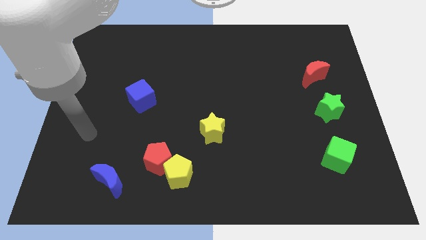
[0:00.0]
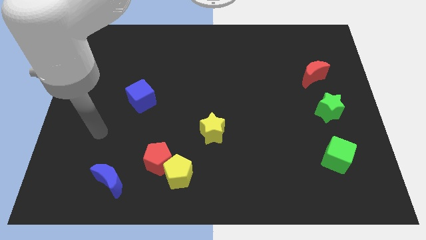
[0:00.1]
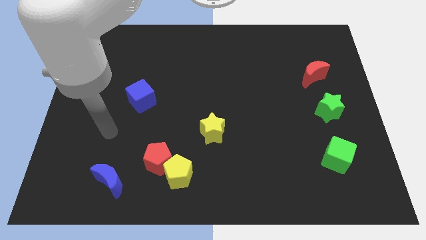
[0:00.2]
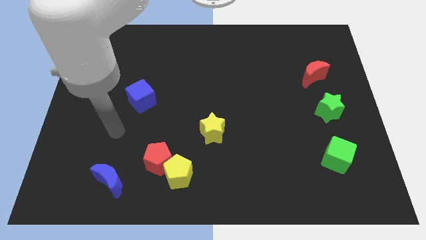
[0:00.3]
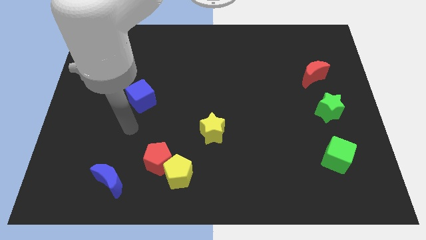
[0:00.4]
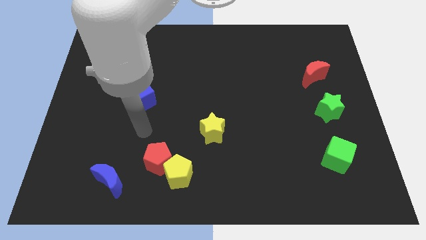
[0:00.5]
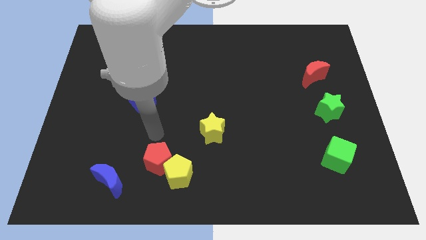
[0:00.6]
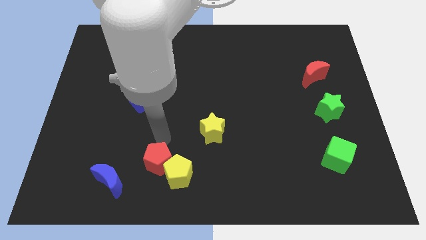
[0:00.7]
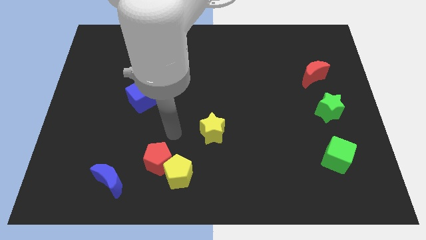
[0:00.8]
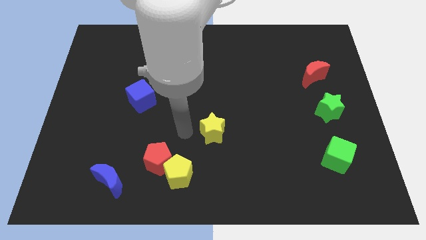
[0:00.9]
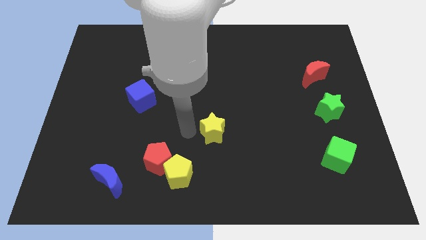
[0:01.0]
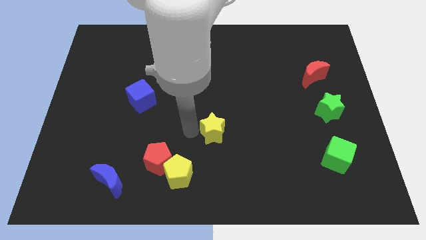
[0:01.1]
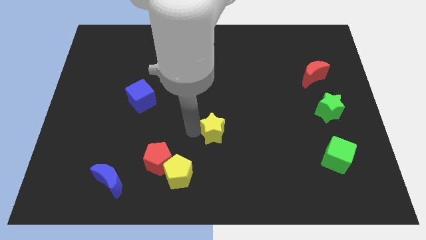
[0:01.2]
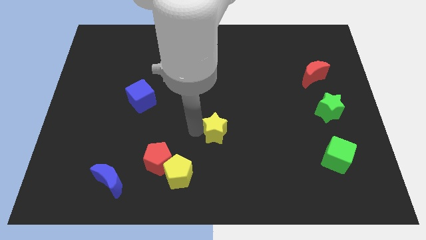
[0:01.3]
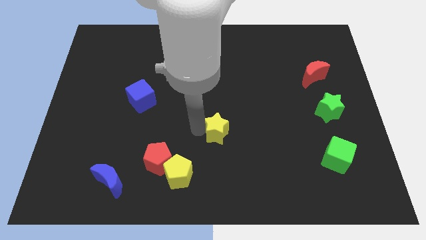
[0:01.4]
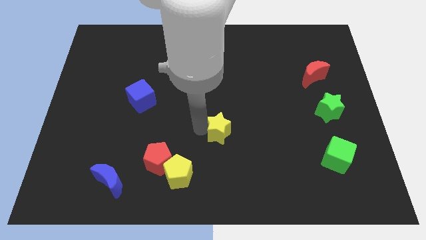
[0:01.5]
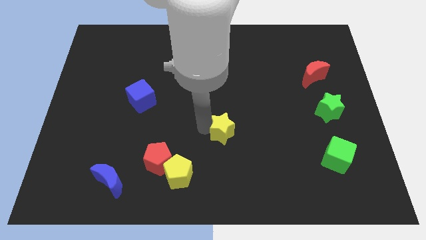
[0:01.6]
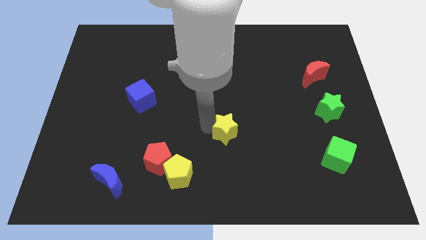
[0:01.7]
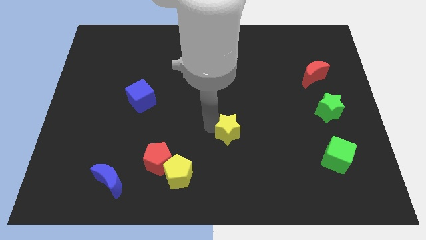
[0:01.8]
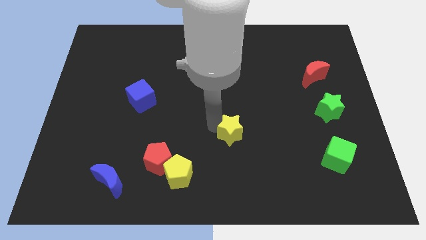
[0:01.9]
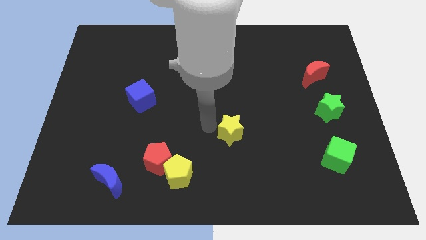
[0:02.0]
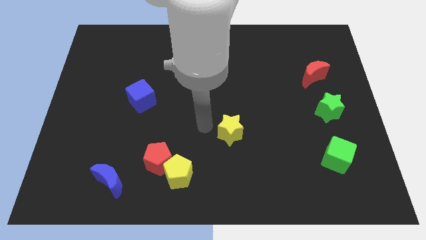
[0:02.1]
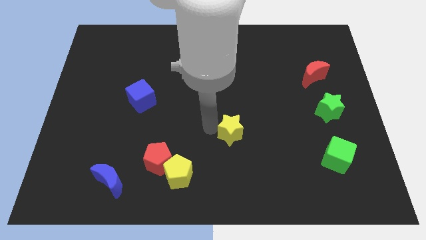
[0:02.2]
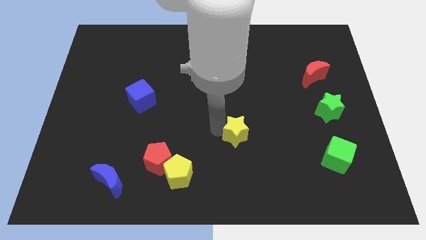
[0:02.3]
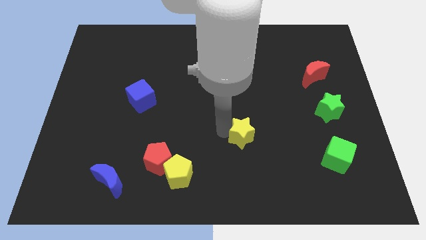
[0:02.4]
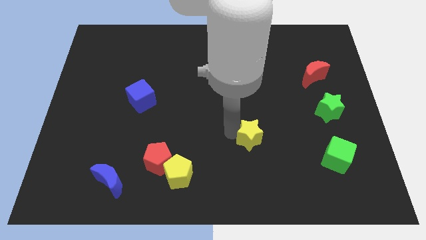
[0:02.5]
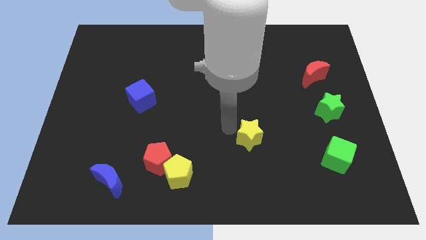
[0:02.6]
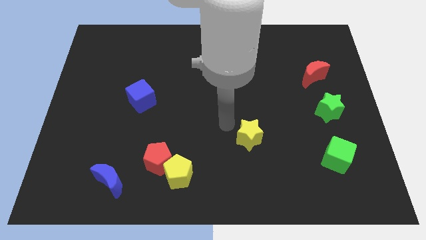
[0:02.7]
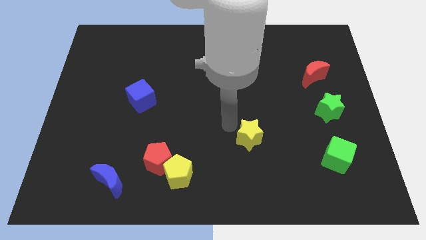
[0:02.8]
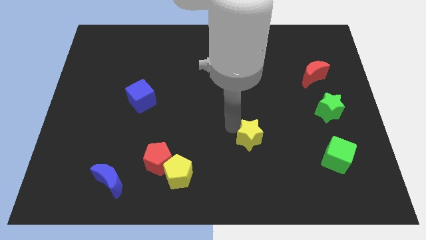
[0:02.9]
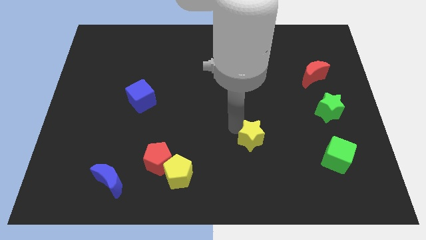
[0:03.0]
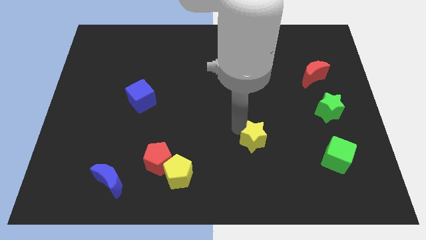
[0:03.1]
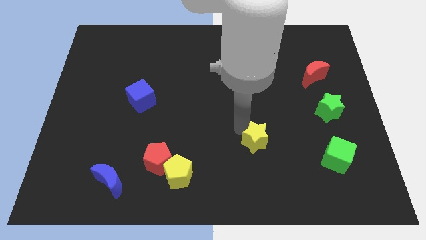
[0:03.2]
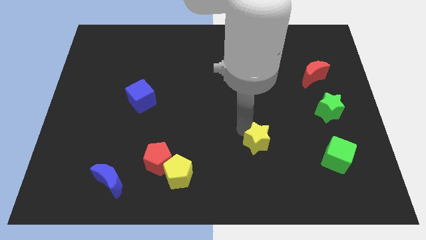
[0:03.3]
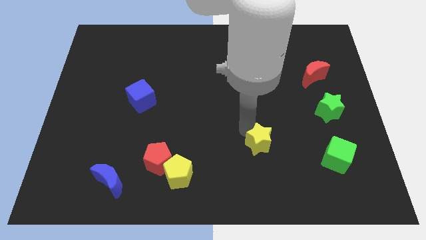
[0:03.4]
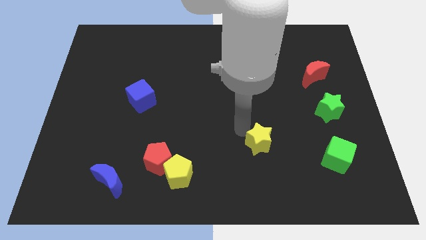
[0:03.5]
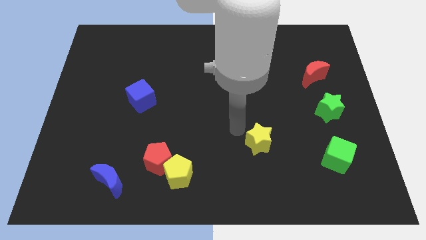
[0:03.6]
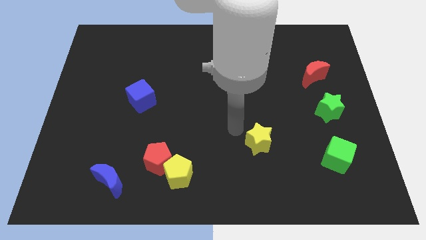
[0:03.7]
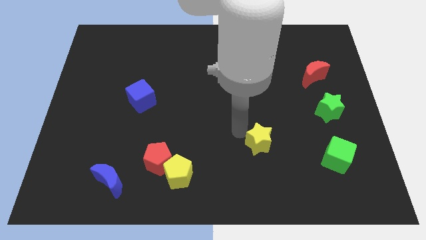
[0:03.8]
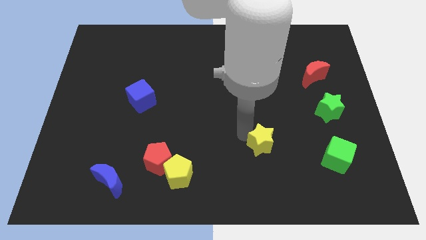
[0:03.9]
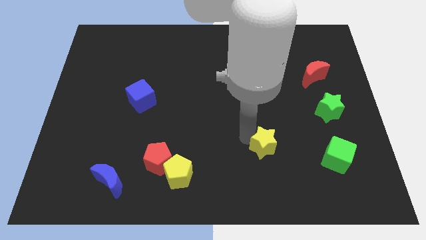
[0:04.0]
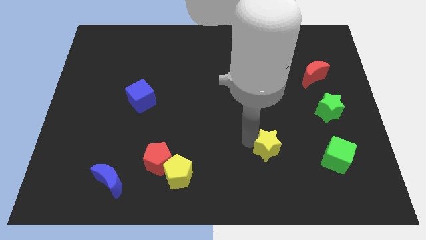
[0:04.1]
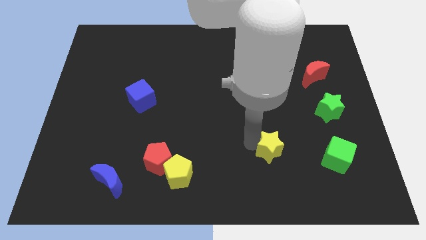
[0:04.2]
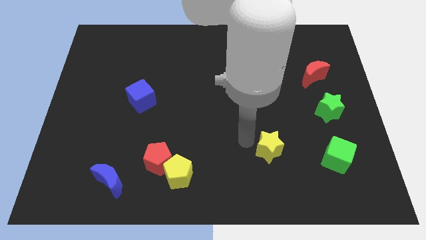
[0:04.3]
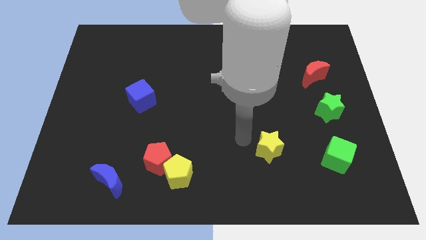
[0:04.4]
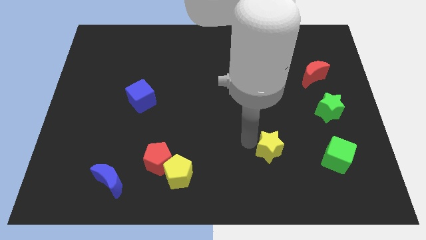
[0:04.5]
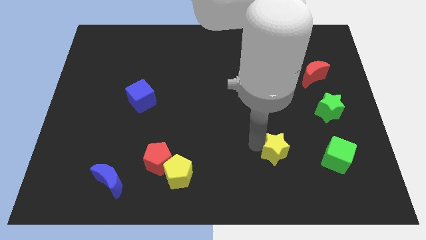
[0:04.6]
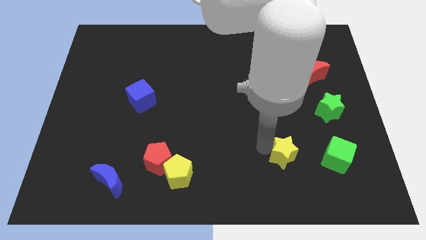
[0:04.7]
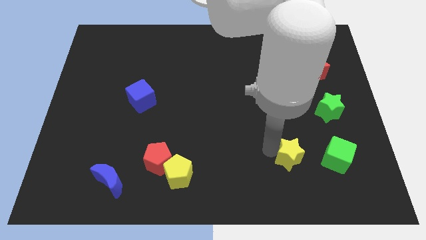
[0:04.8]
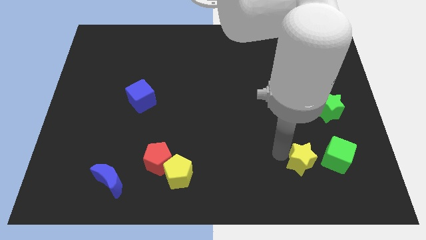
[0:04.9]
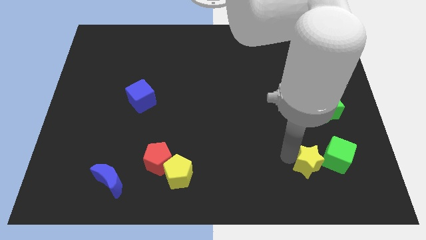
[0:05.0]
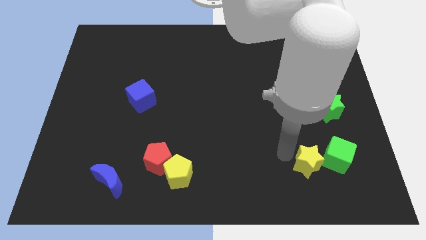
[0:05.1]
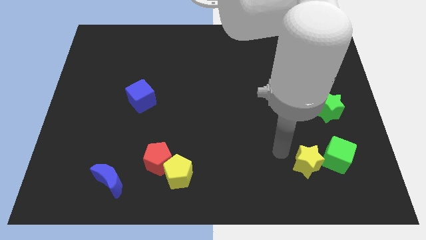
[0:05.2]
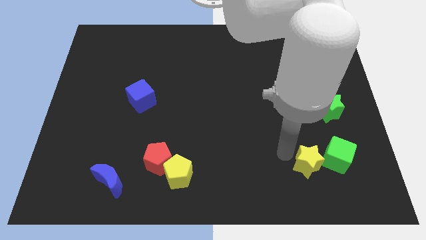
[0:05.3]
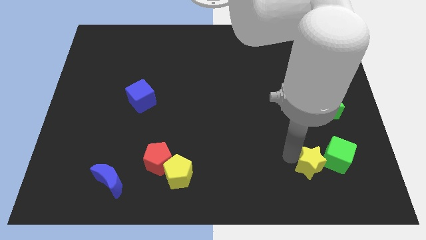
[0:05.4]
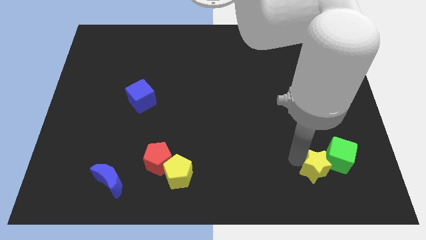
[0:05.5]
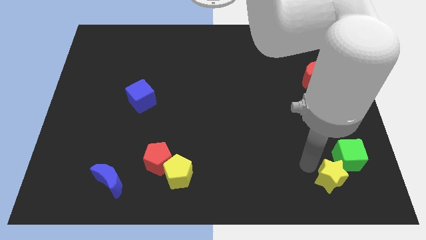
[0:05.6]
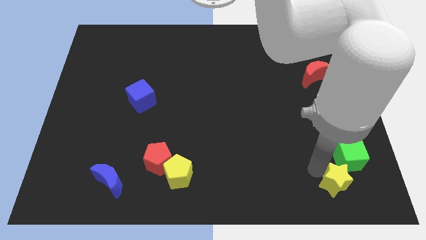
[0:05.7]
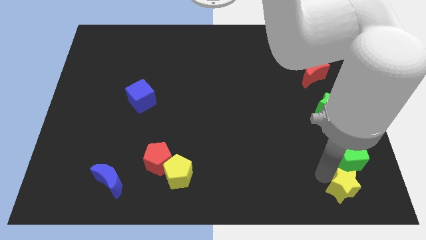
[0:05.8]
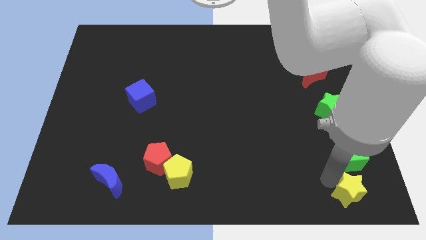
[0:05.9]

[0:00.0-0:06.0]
slide the yellow star to the bottom right

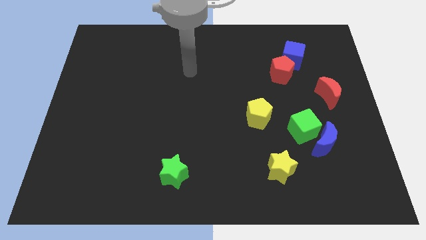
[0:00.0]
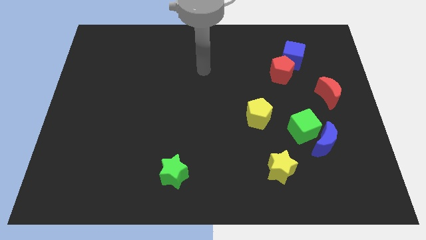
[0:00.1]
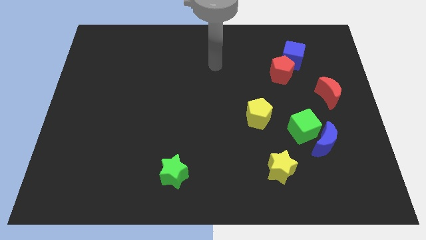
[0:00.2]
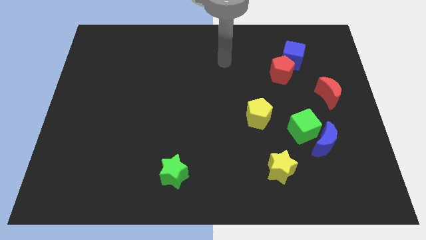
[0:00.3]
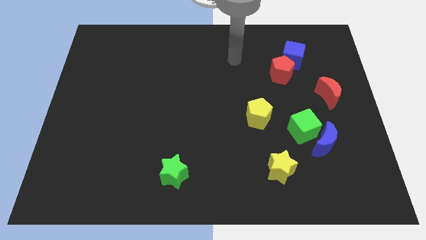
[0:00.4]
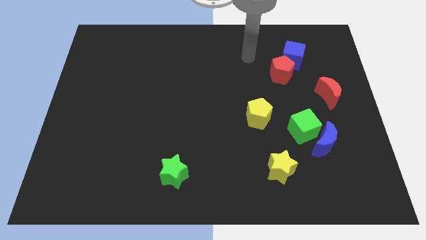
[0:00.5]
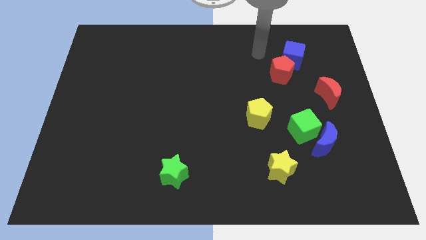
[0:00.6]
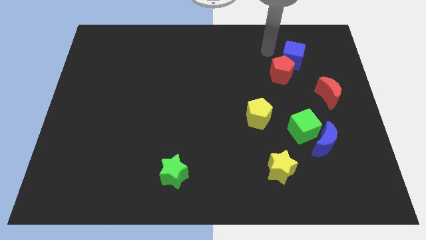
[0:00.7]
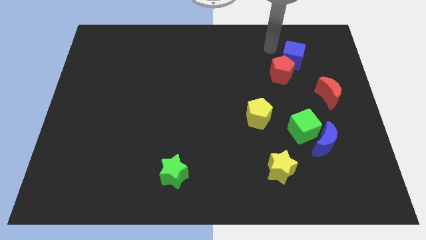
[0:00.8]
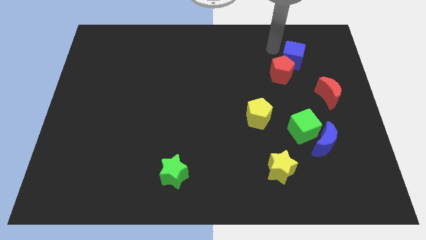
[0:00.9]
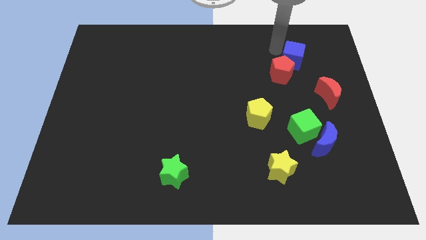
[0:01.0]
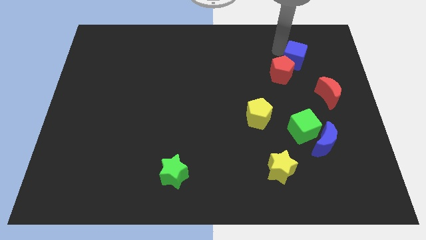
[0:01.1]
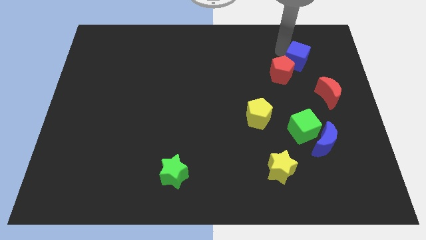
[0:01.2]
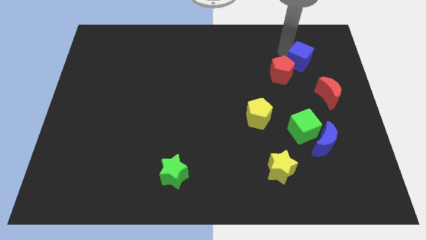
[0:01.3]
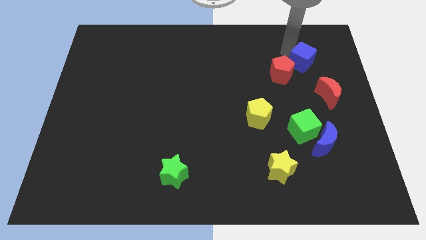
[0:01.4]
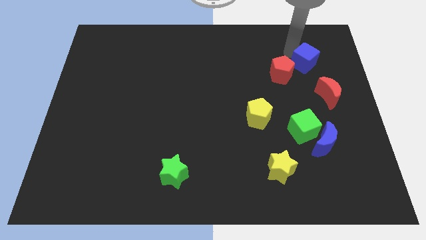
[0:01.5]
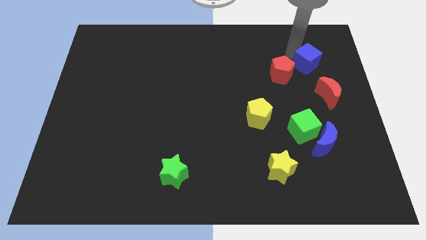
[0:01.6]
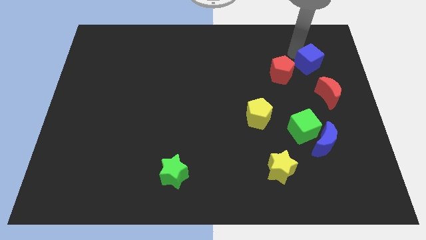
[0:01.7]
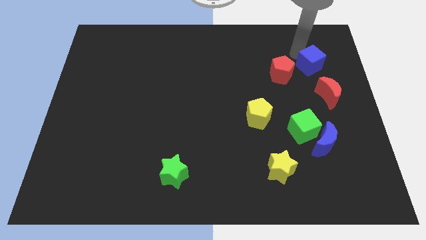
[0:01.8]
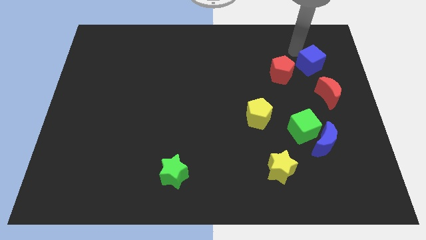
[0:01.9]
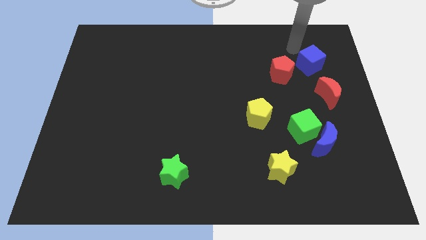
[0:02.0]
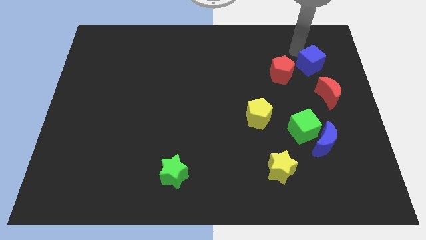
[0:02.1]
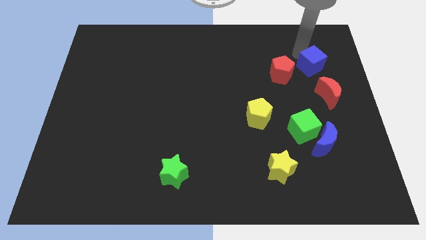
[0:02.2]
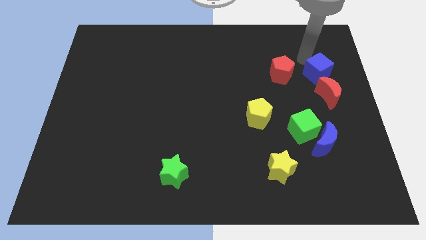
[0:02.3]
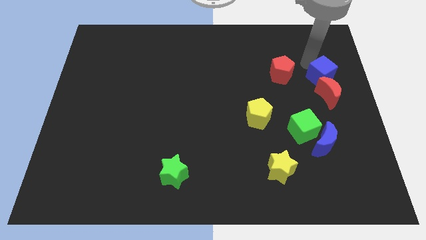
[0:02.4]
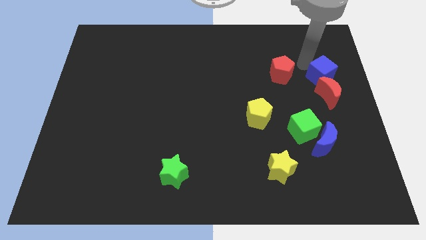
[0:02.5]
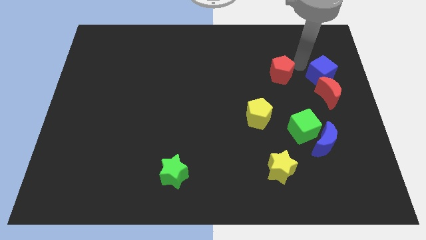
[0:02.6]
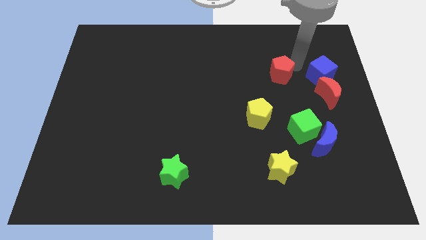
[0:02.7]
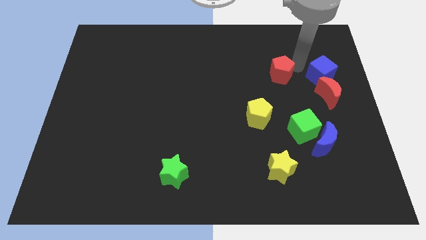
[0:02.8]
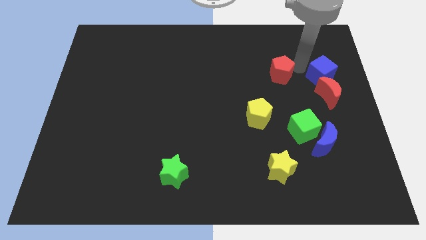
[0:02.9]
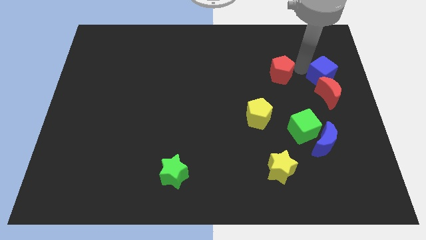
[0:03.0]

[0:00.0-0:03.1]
move the blue cube to the right side
